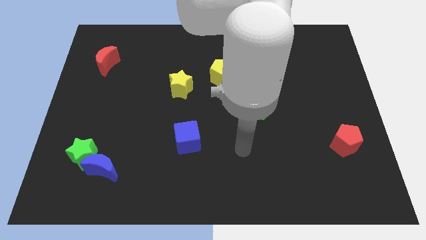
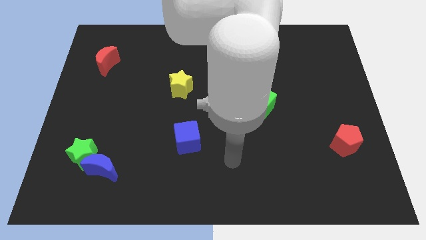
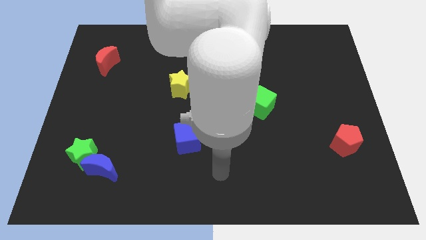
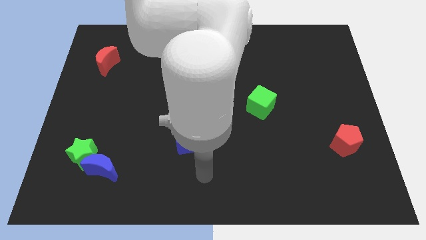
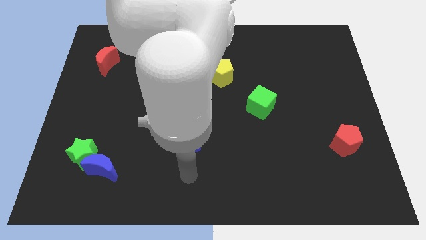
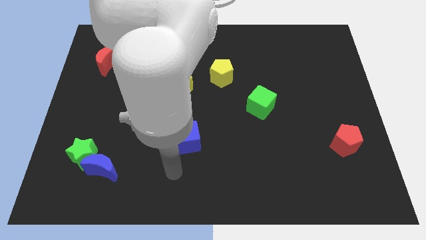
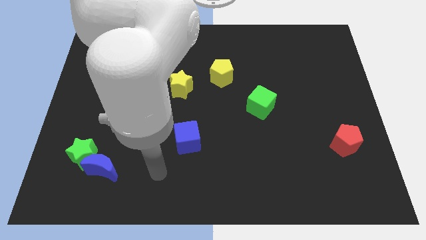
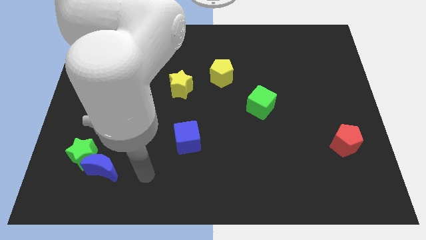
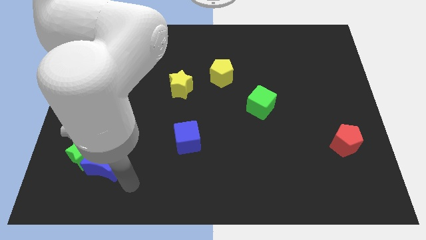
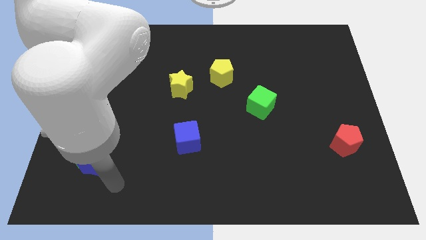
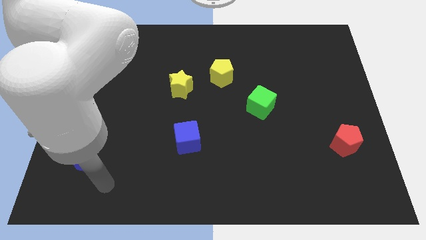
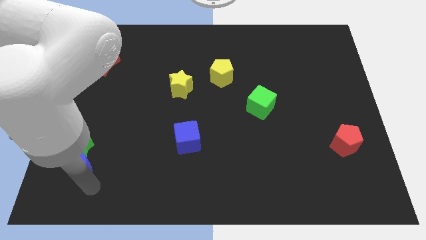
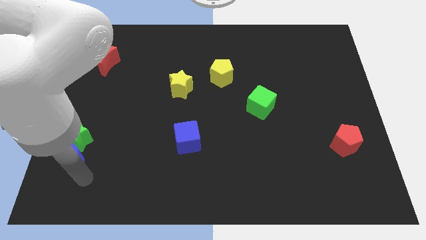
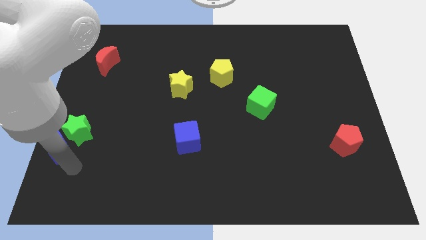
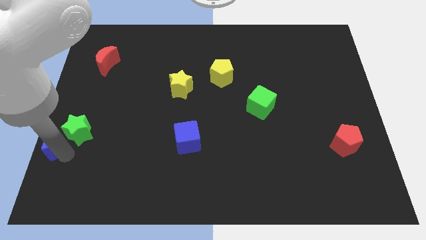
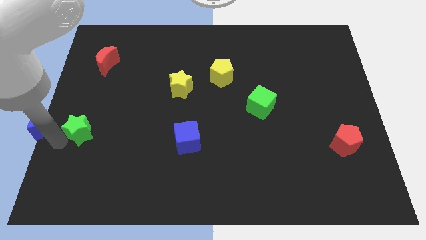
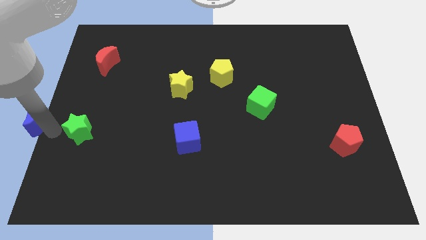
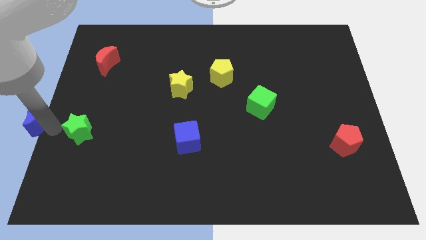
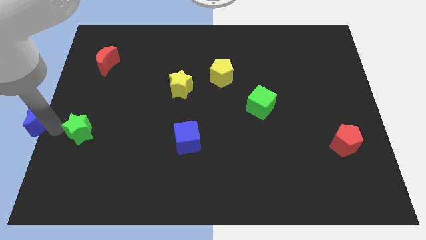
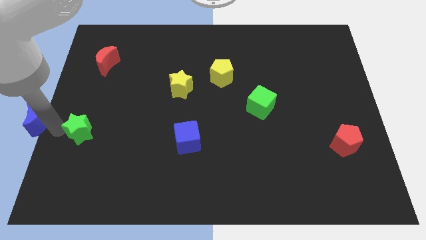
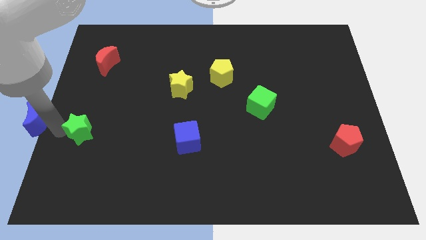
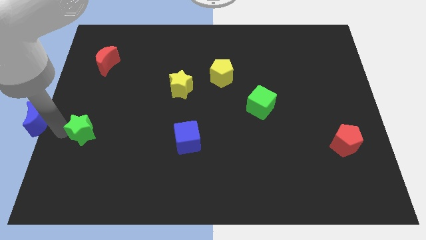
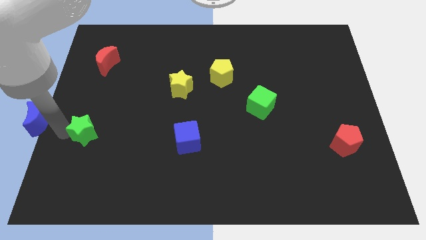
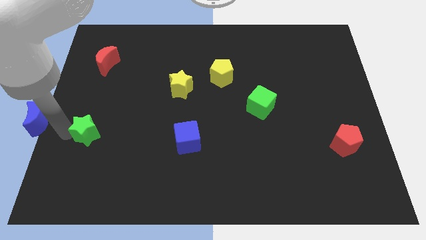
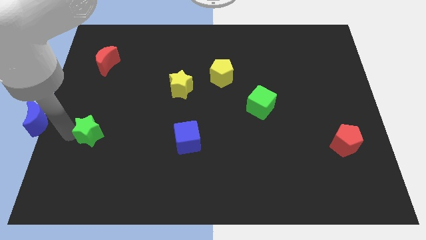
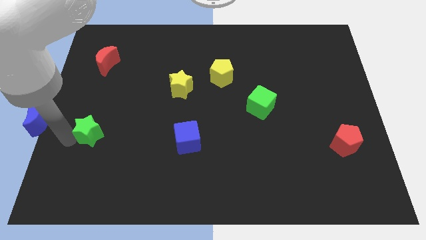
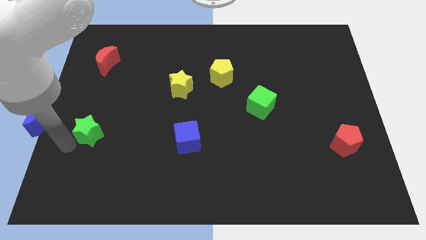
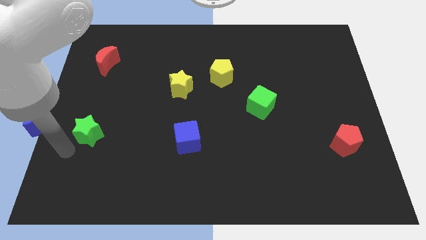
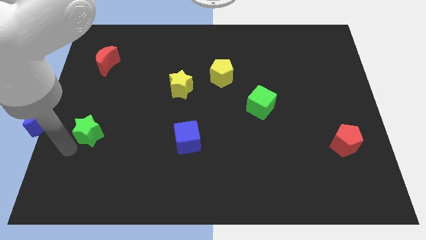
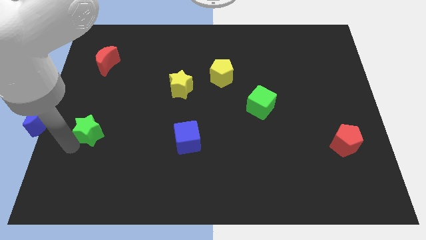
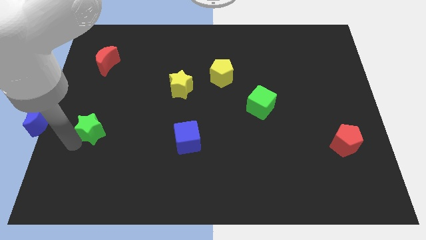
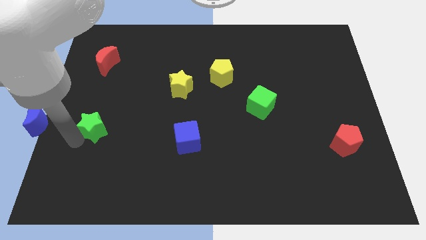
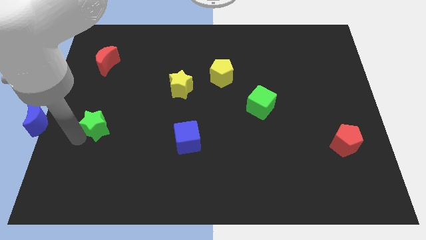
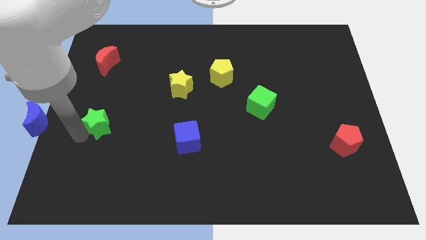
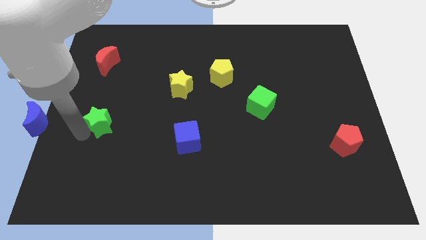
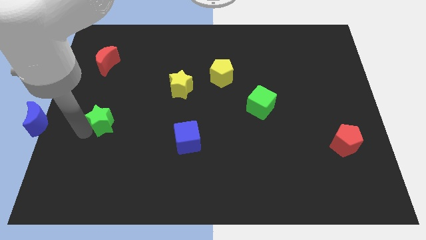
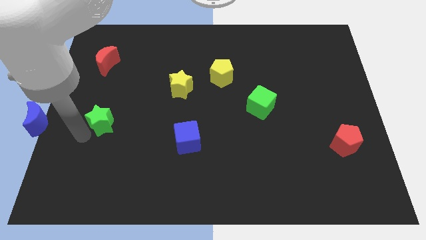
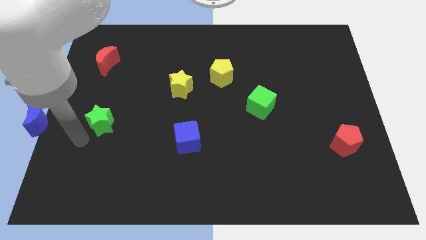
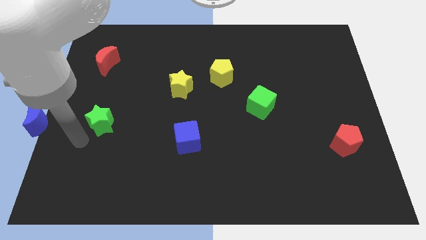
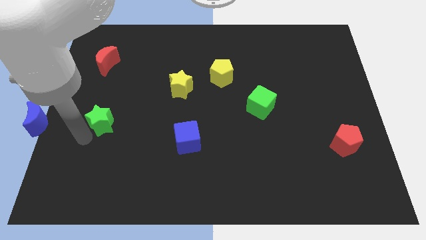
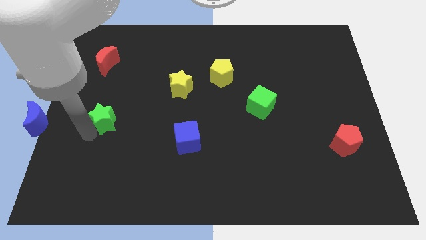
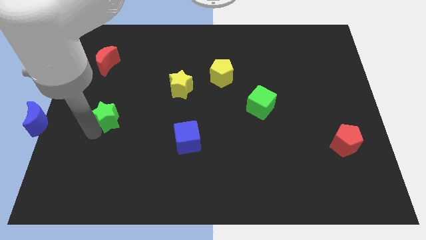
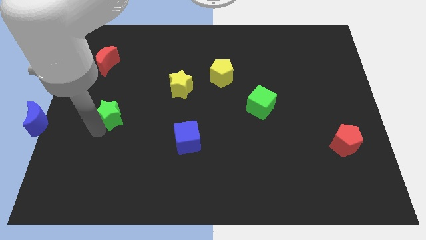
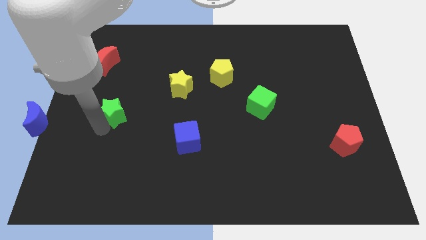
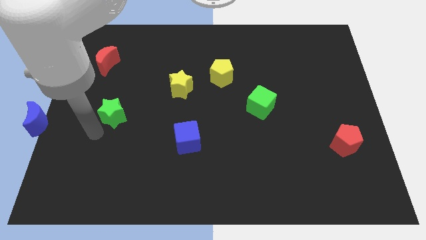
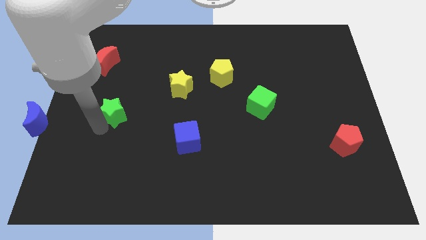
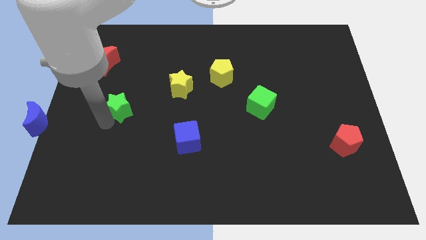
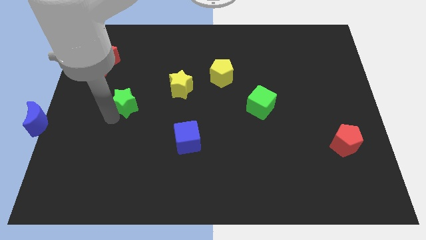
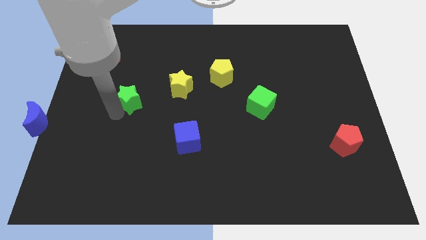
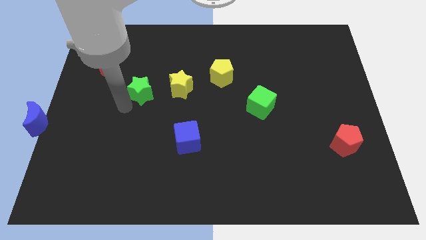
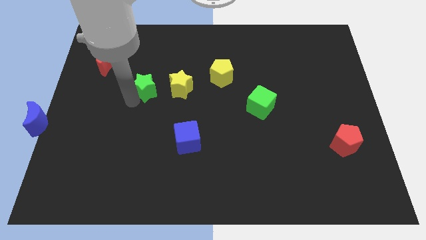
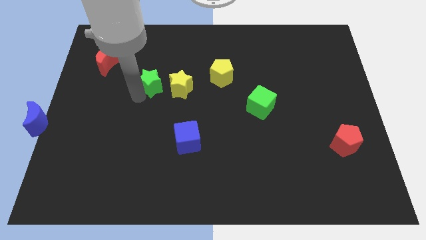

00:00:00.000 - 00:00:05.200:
push the green star diagonally up and to the left of the yellow star

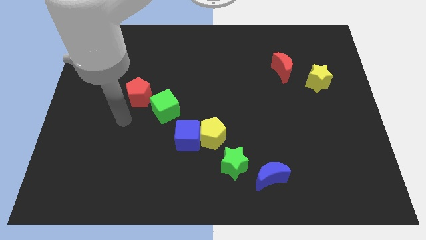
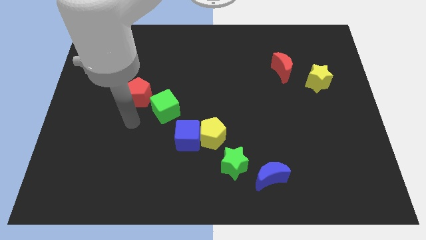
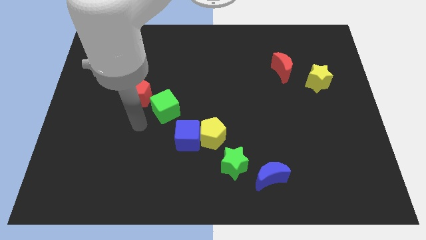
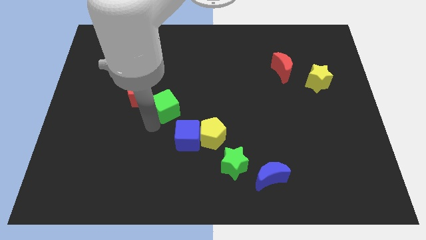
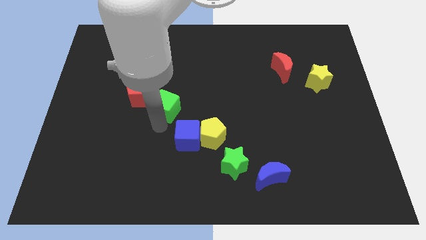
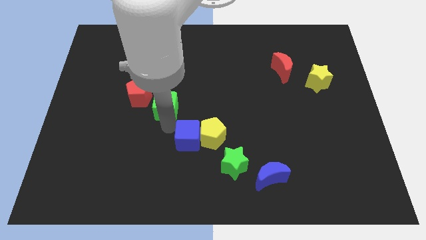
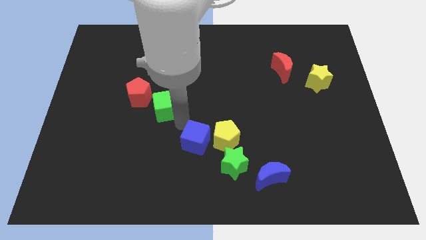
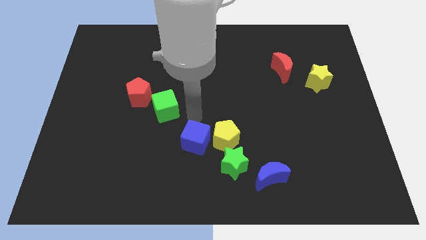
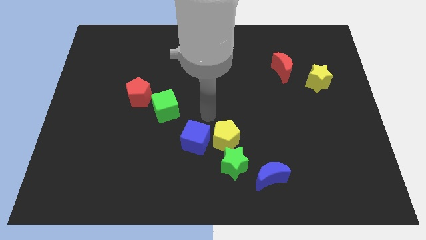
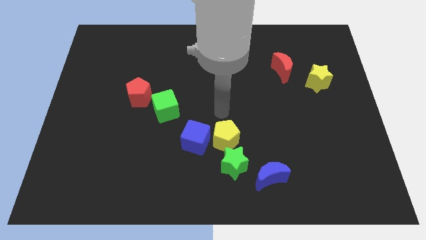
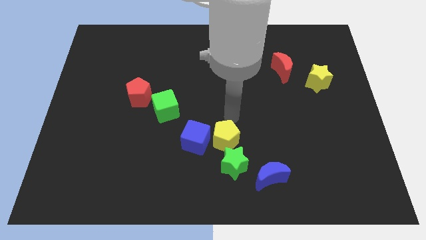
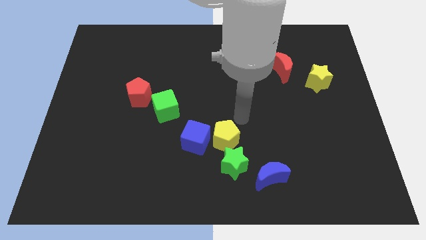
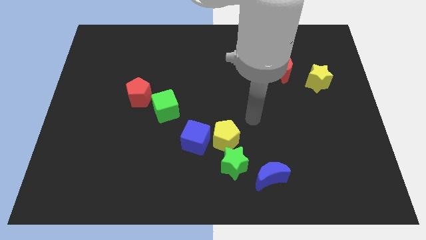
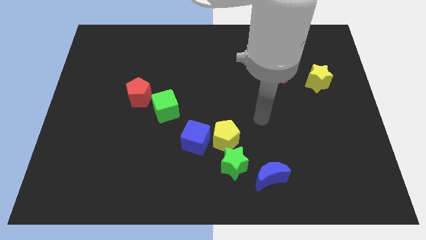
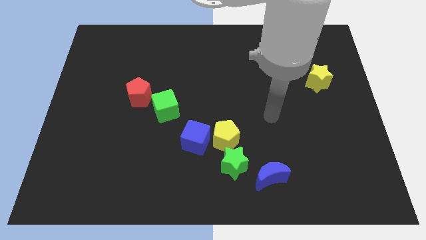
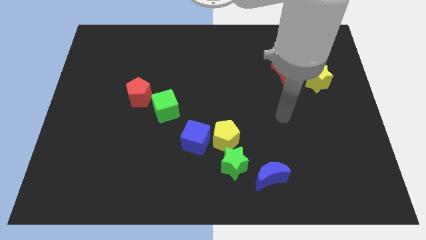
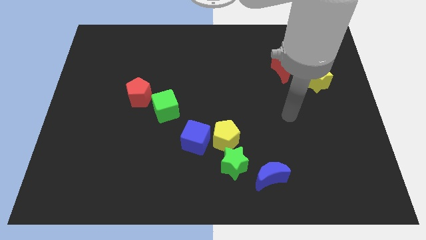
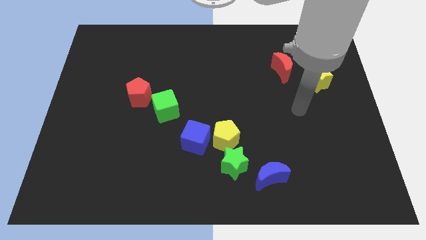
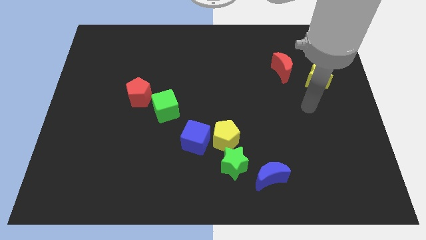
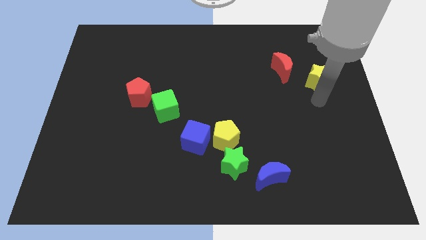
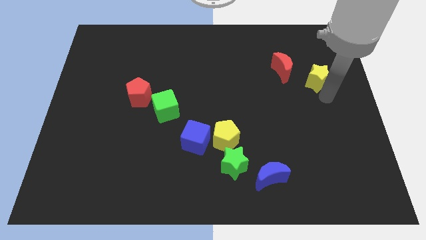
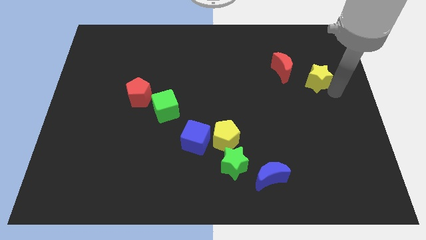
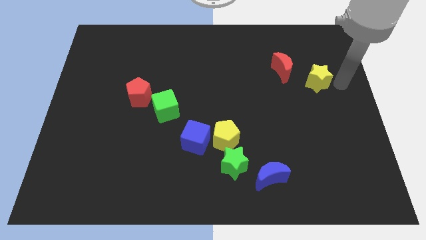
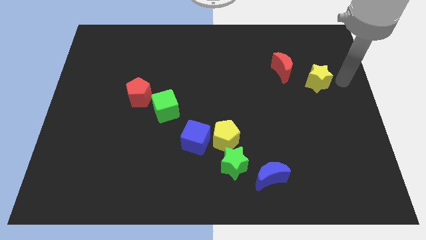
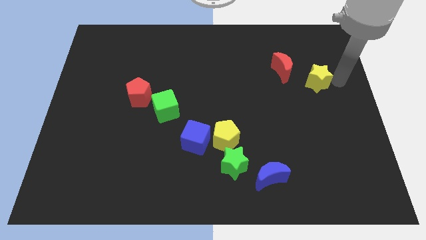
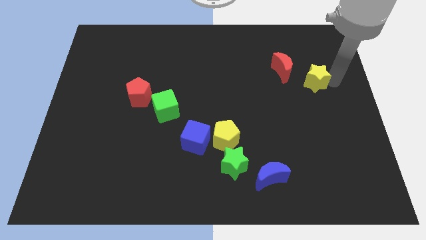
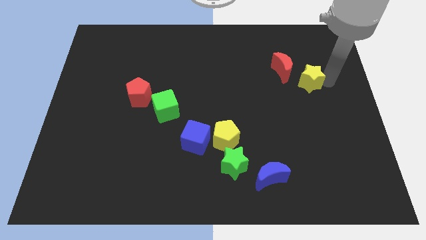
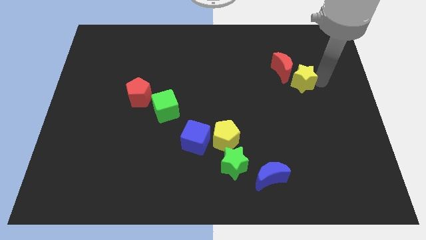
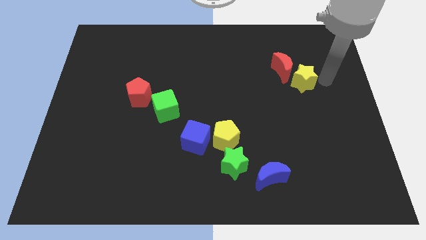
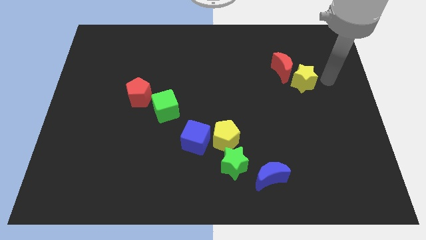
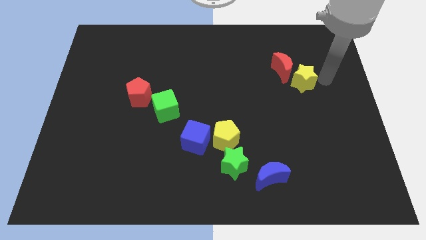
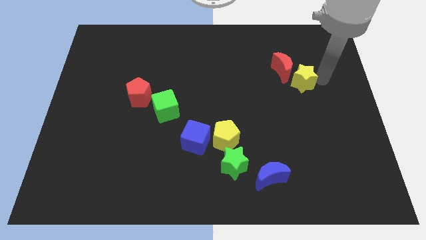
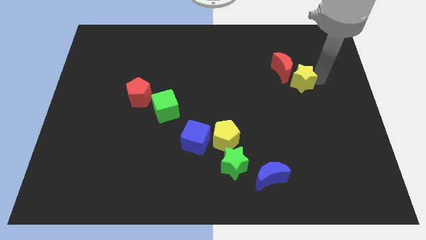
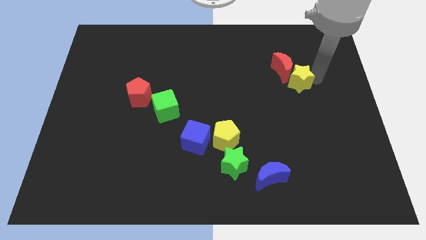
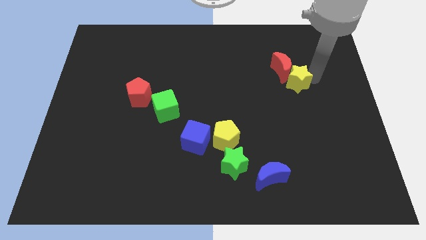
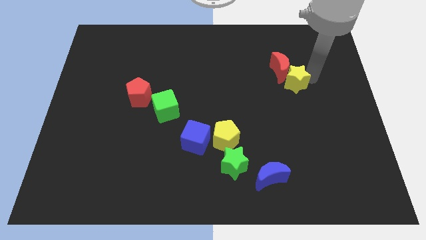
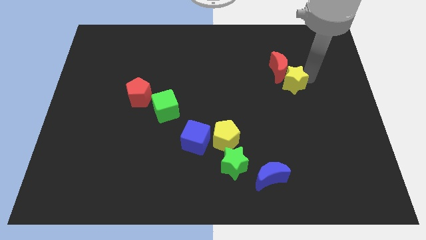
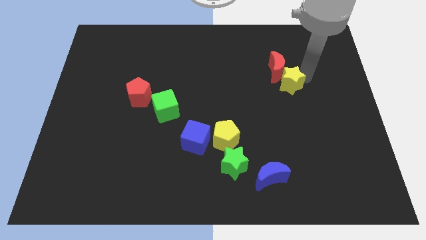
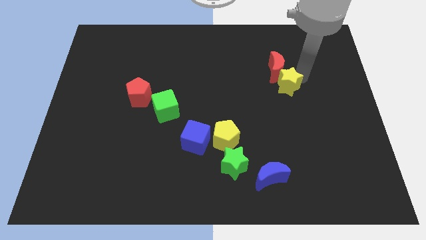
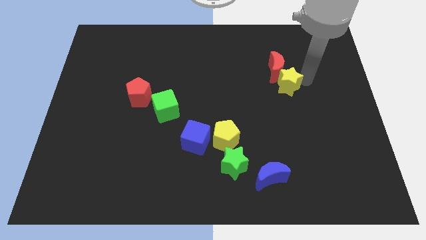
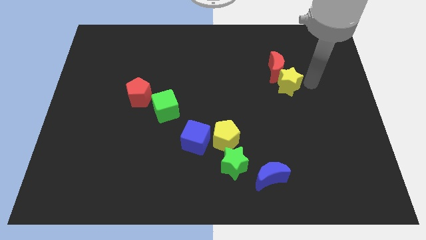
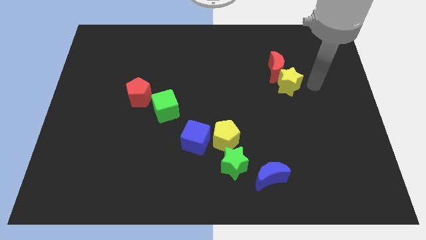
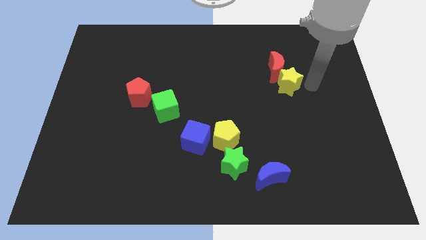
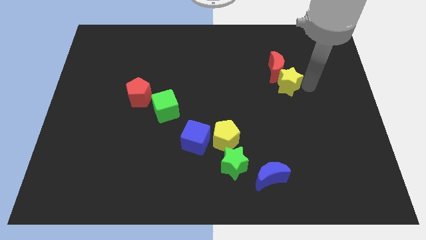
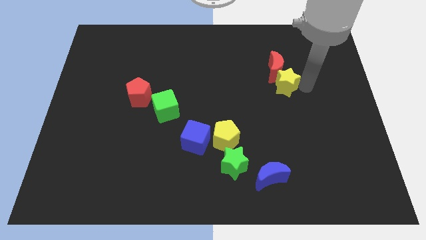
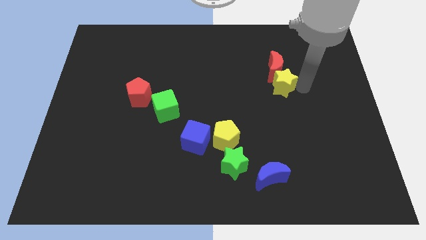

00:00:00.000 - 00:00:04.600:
slide the yellow star diagonally down and to the left of the red moon
